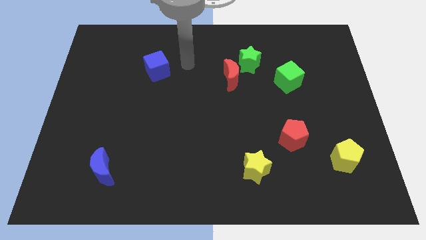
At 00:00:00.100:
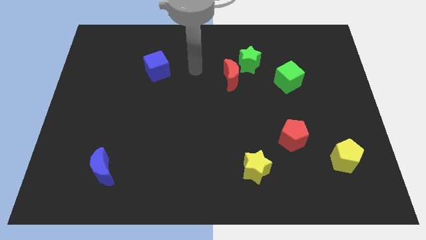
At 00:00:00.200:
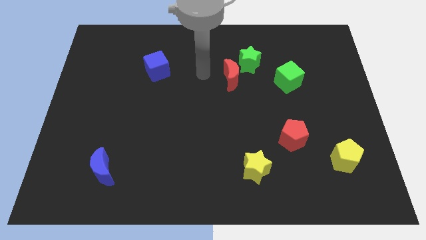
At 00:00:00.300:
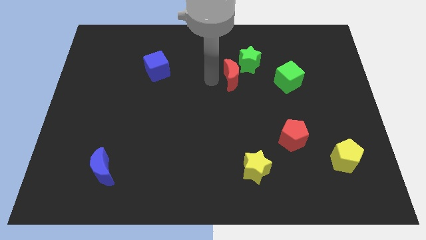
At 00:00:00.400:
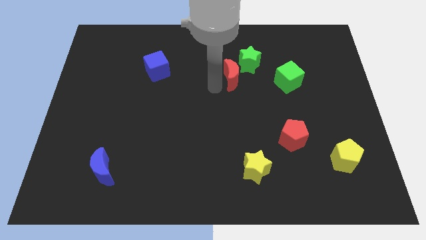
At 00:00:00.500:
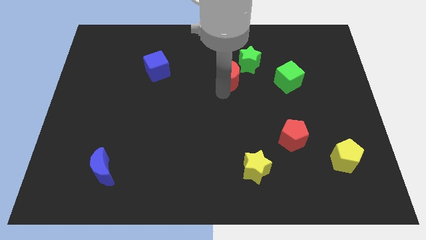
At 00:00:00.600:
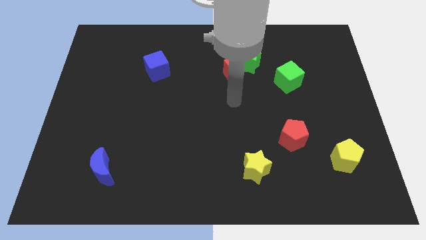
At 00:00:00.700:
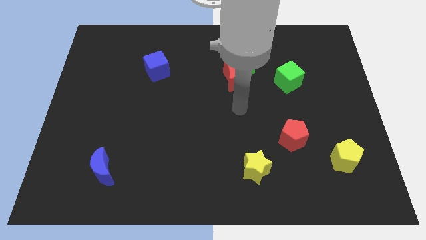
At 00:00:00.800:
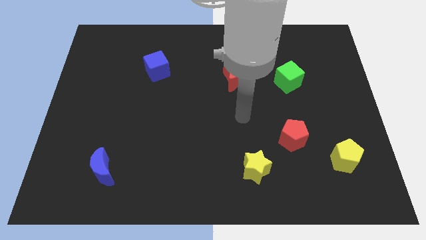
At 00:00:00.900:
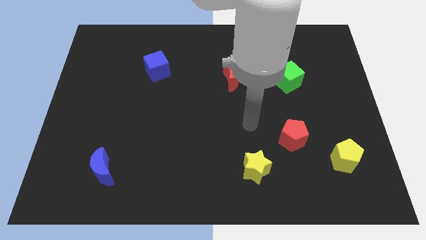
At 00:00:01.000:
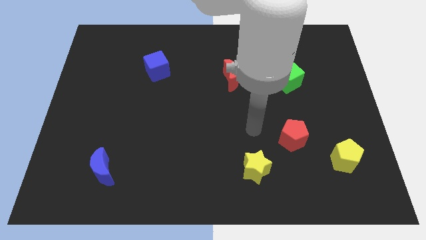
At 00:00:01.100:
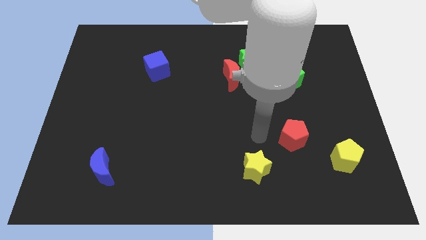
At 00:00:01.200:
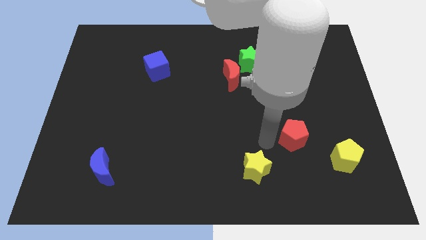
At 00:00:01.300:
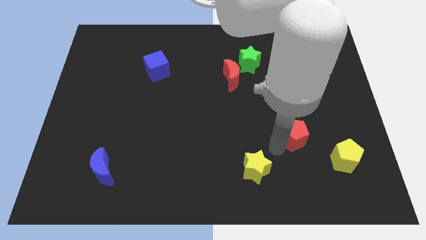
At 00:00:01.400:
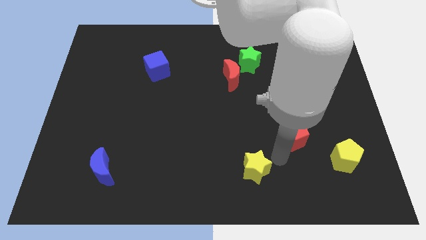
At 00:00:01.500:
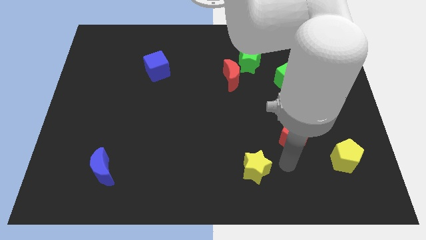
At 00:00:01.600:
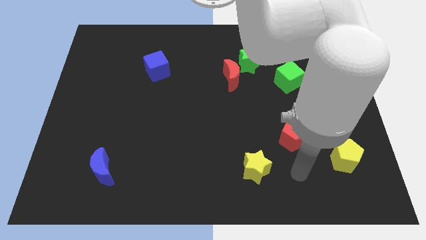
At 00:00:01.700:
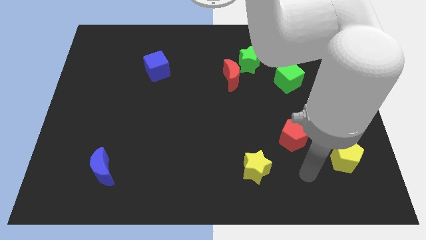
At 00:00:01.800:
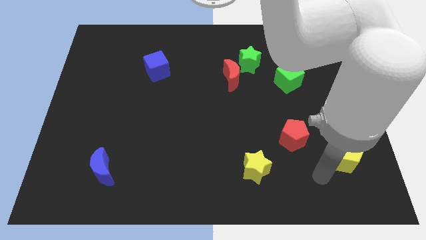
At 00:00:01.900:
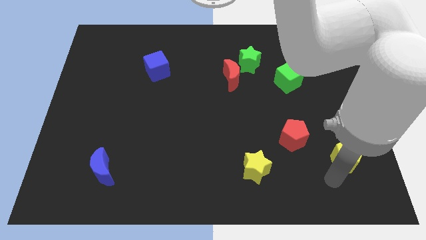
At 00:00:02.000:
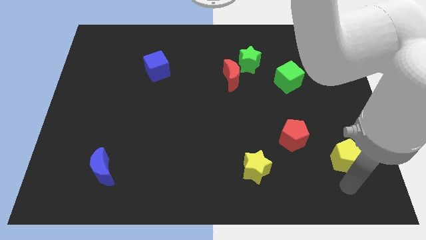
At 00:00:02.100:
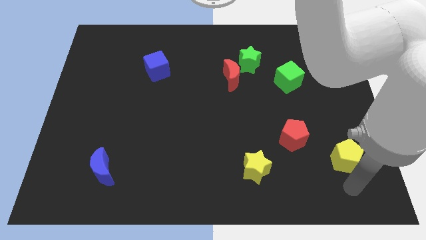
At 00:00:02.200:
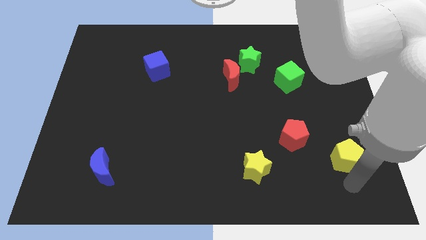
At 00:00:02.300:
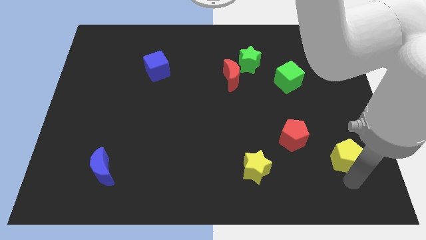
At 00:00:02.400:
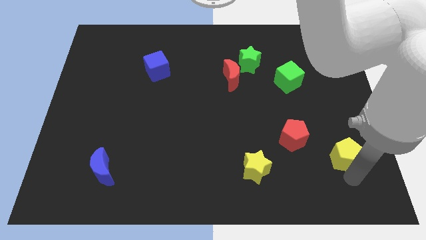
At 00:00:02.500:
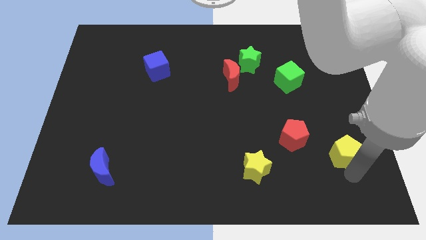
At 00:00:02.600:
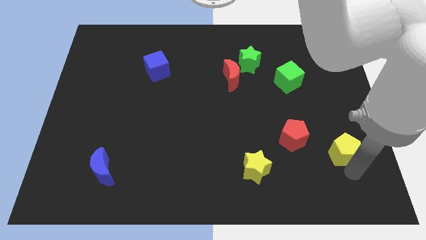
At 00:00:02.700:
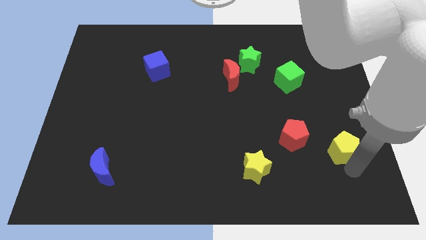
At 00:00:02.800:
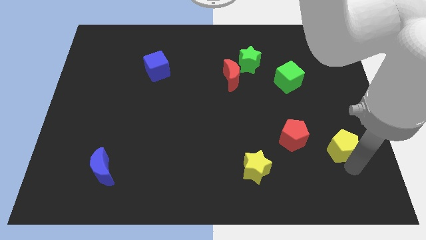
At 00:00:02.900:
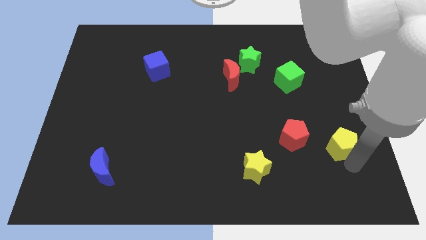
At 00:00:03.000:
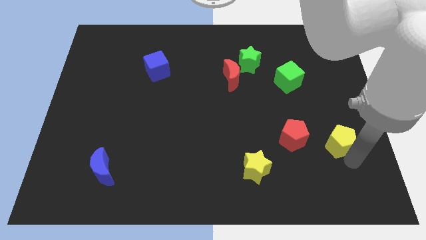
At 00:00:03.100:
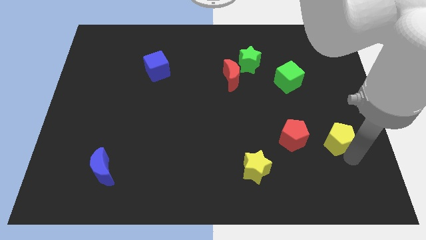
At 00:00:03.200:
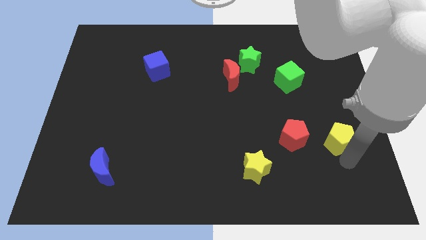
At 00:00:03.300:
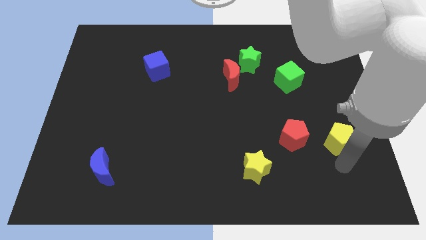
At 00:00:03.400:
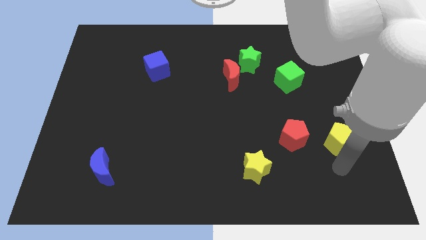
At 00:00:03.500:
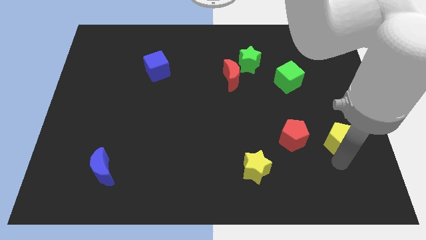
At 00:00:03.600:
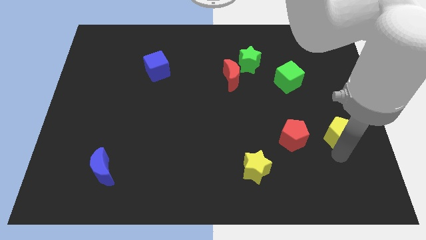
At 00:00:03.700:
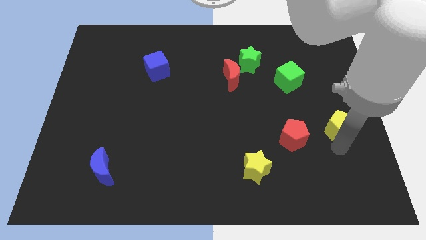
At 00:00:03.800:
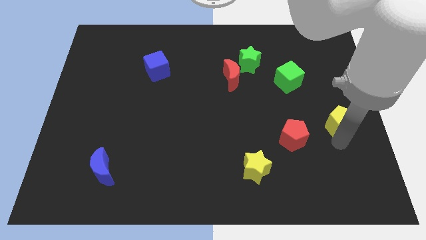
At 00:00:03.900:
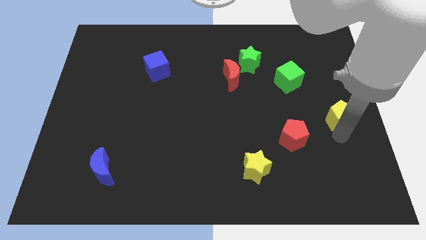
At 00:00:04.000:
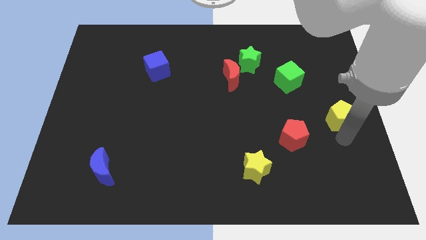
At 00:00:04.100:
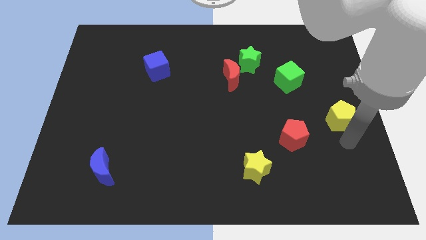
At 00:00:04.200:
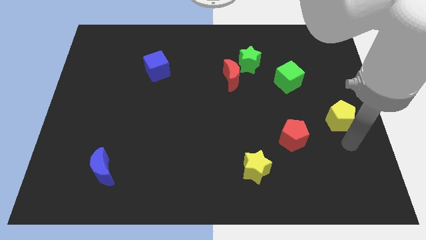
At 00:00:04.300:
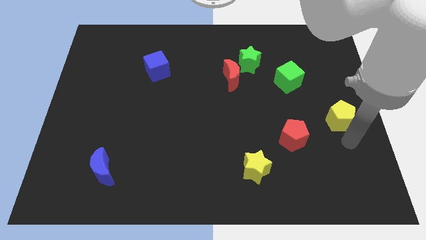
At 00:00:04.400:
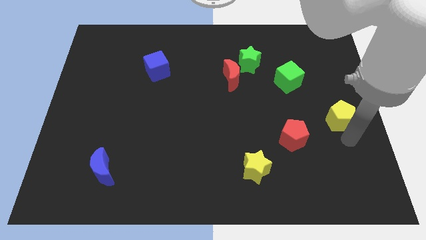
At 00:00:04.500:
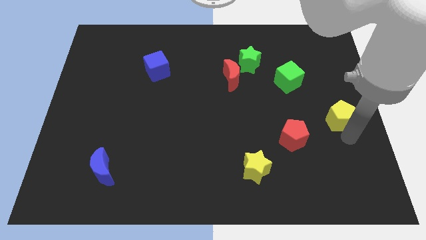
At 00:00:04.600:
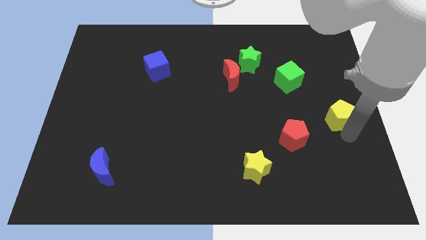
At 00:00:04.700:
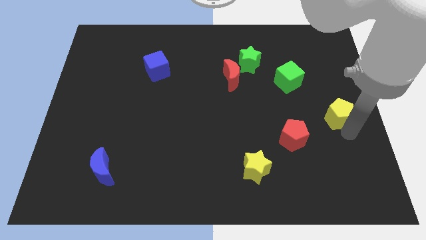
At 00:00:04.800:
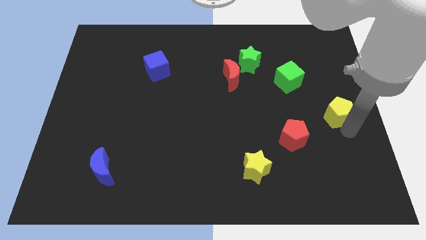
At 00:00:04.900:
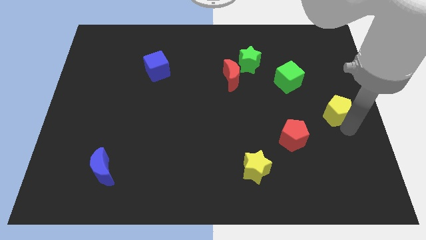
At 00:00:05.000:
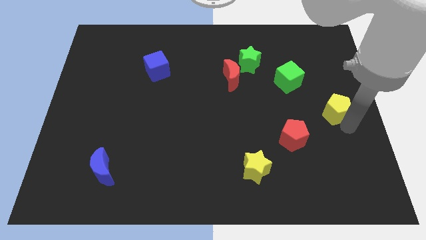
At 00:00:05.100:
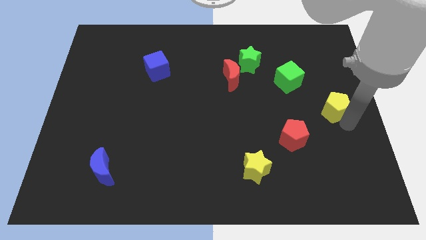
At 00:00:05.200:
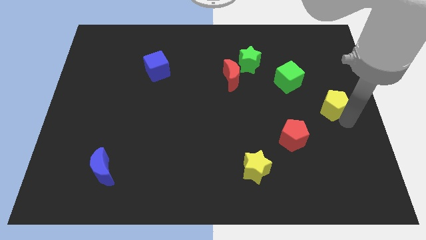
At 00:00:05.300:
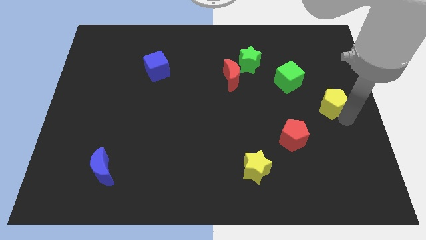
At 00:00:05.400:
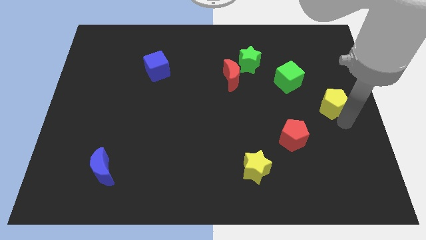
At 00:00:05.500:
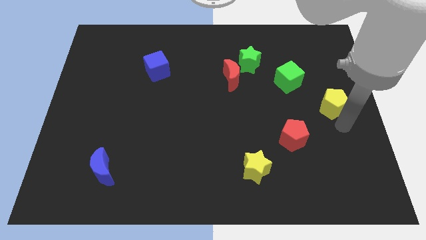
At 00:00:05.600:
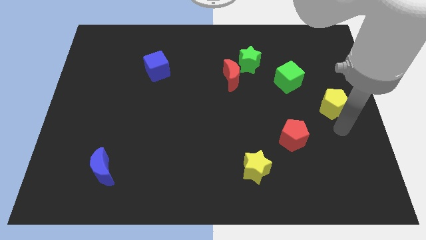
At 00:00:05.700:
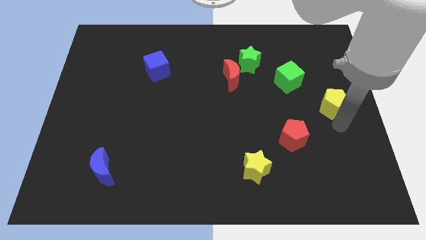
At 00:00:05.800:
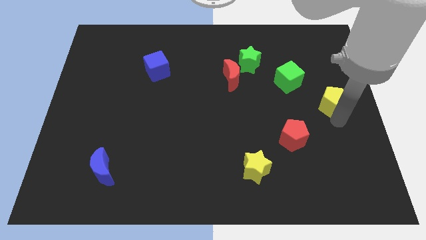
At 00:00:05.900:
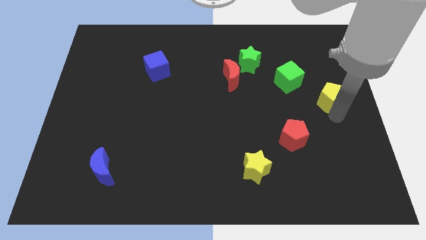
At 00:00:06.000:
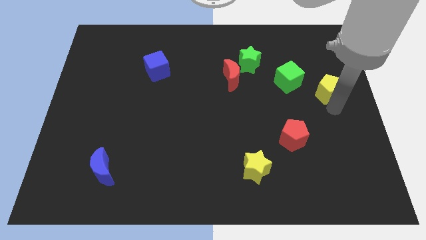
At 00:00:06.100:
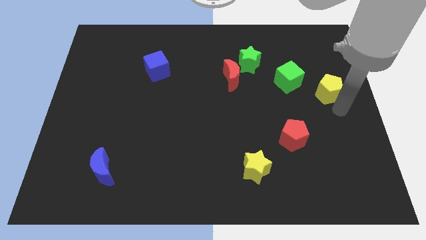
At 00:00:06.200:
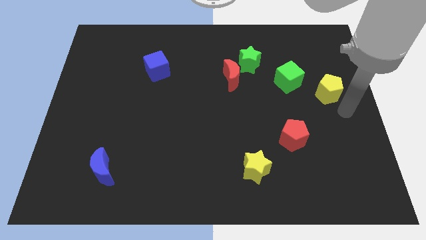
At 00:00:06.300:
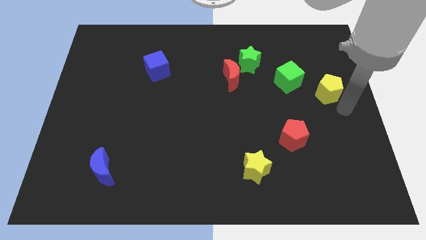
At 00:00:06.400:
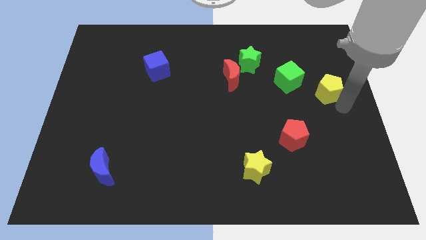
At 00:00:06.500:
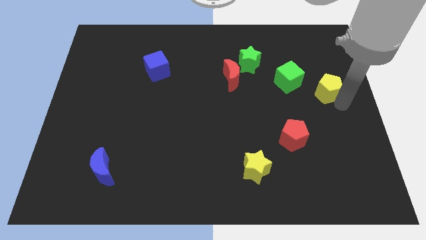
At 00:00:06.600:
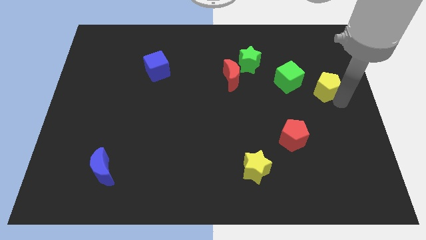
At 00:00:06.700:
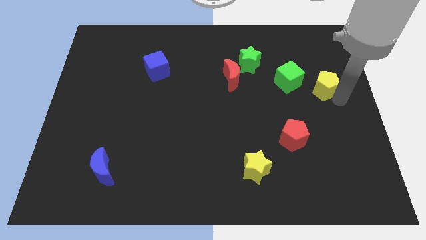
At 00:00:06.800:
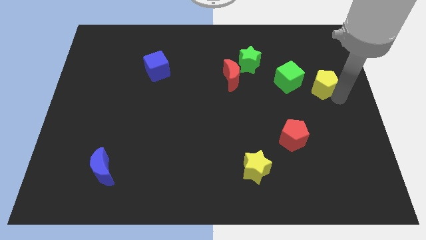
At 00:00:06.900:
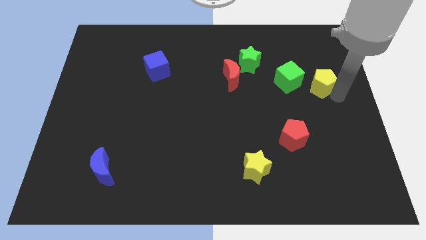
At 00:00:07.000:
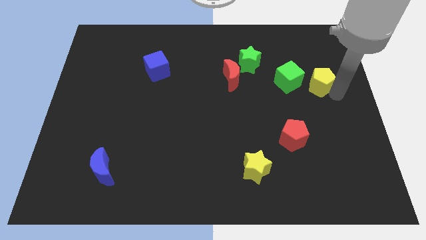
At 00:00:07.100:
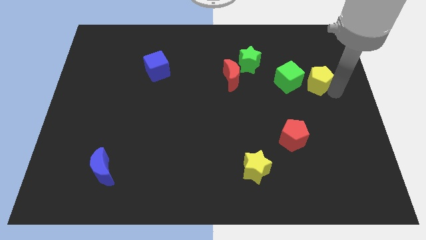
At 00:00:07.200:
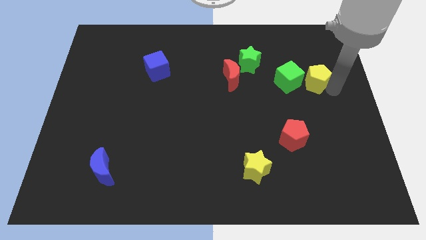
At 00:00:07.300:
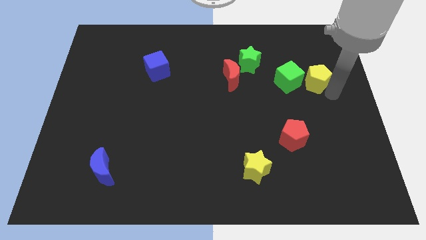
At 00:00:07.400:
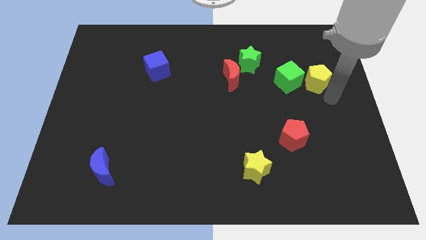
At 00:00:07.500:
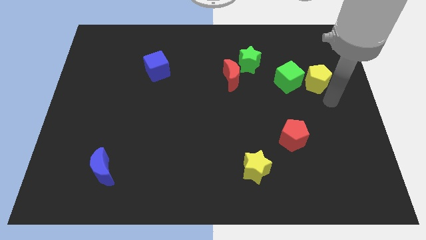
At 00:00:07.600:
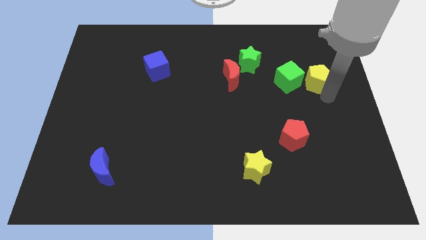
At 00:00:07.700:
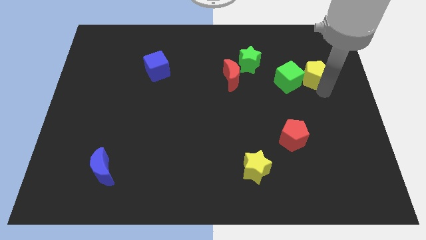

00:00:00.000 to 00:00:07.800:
put the yellow pentagon to the top right of the green cube
